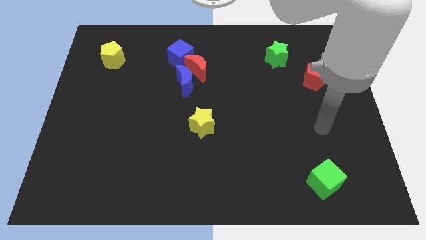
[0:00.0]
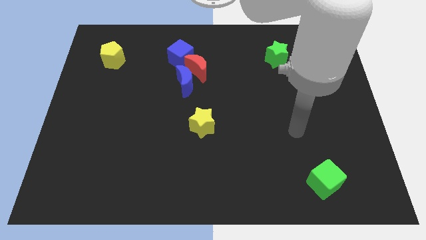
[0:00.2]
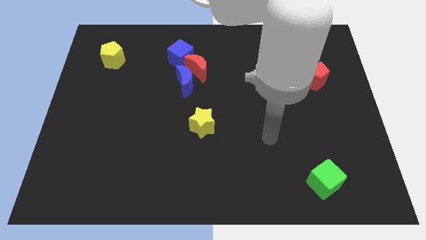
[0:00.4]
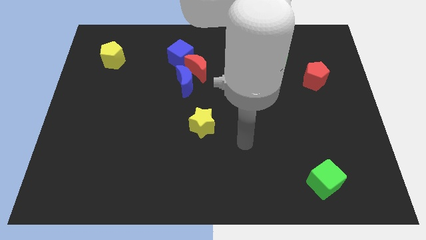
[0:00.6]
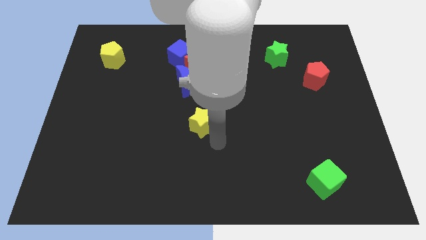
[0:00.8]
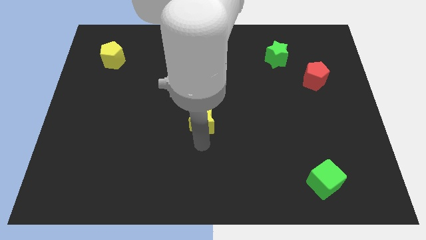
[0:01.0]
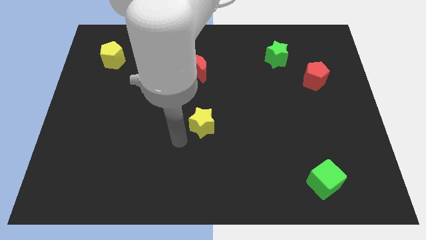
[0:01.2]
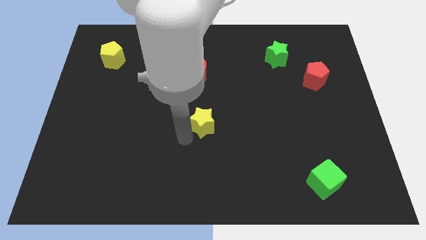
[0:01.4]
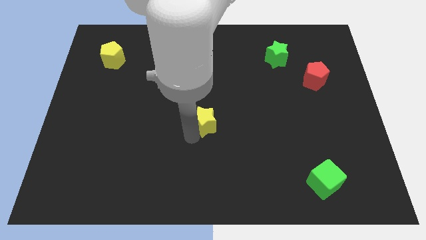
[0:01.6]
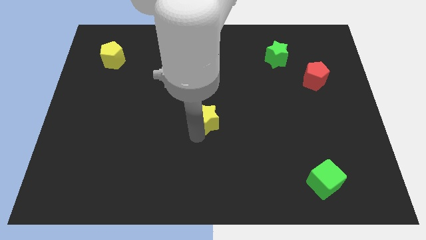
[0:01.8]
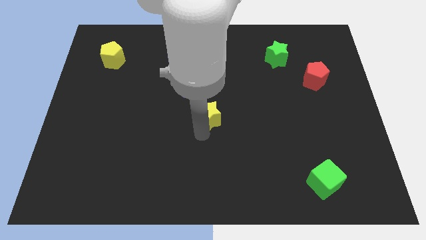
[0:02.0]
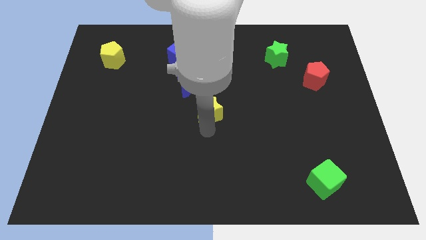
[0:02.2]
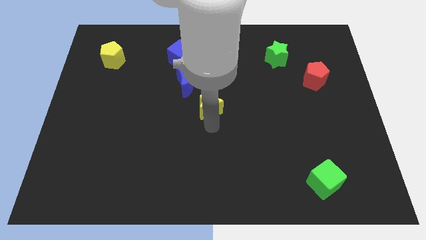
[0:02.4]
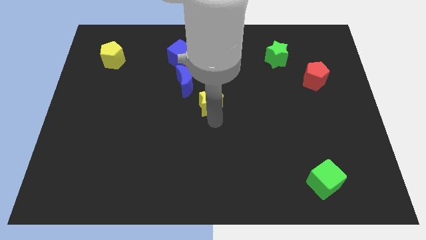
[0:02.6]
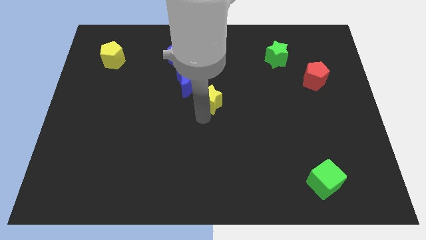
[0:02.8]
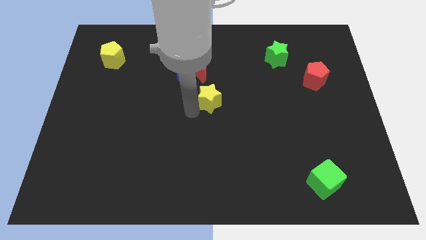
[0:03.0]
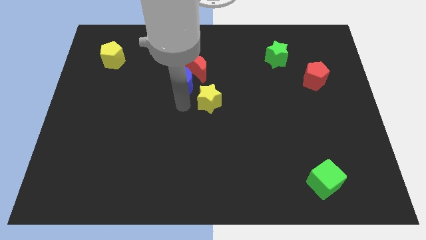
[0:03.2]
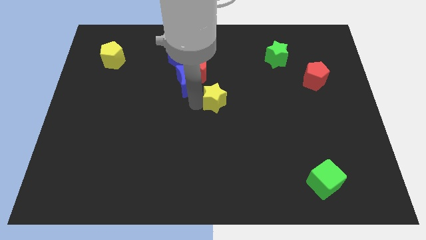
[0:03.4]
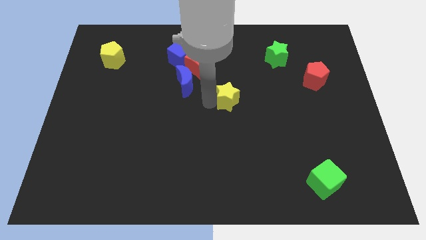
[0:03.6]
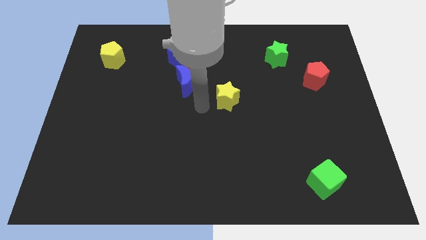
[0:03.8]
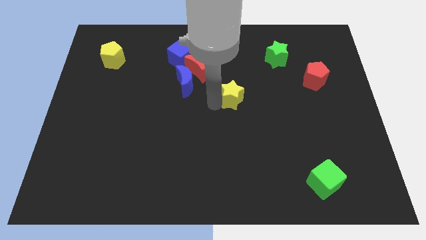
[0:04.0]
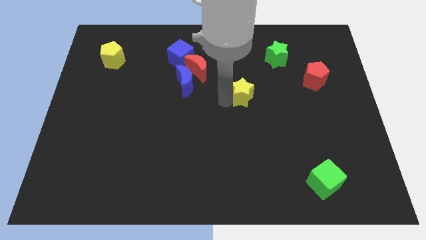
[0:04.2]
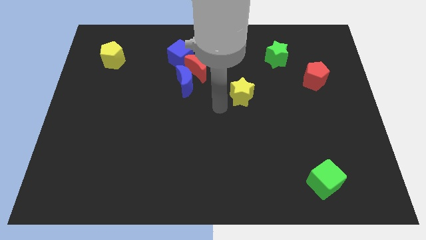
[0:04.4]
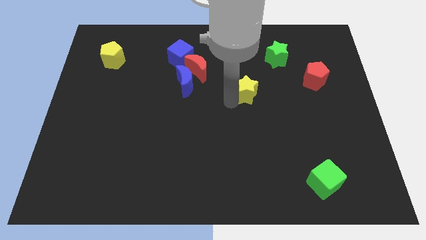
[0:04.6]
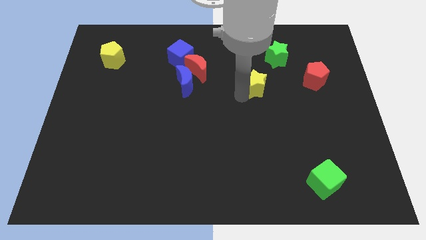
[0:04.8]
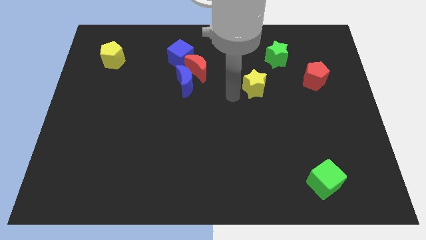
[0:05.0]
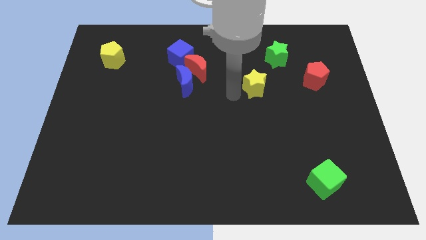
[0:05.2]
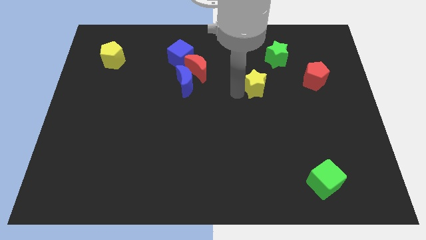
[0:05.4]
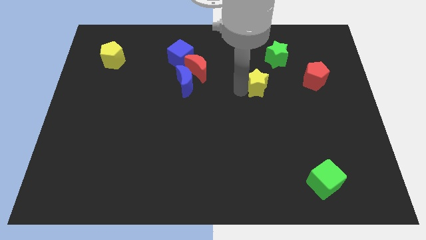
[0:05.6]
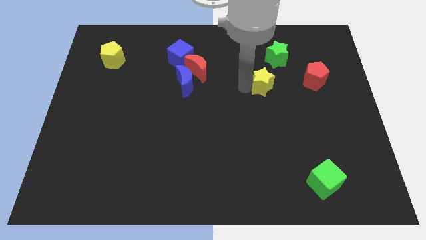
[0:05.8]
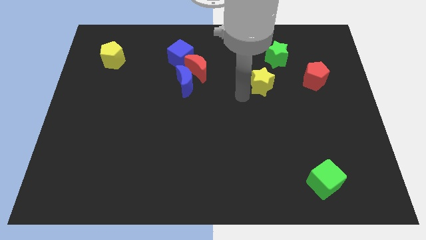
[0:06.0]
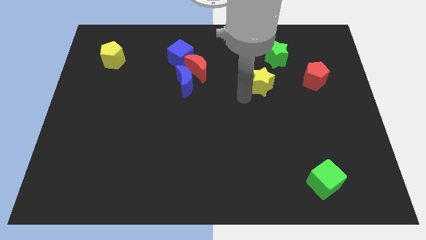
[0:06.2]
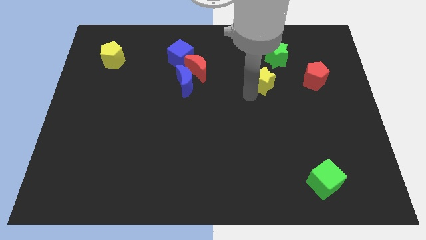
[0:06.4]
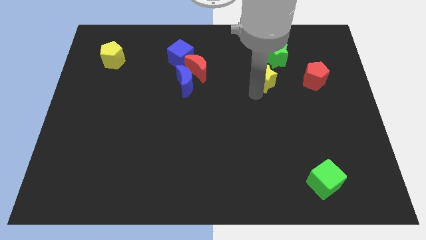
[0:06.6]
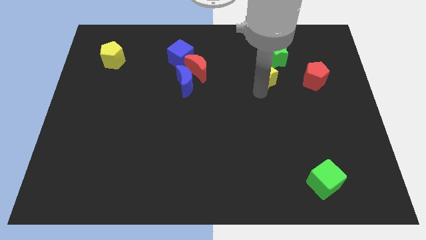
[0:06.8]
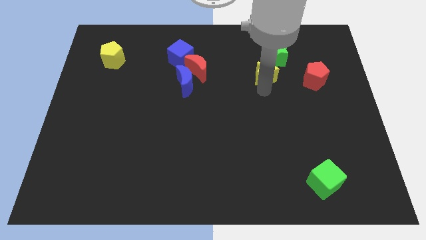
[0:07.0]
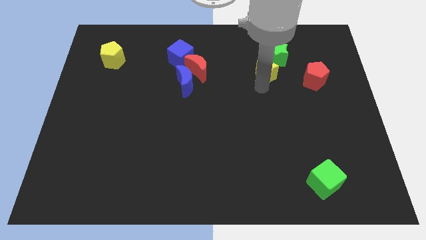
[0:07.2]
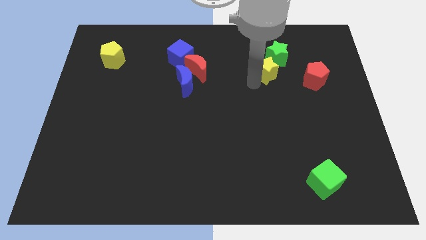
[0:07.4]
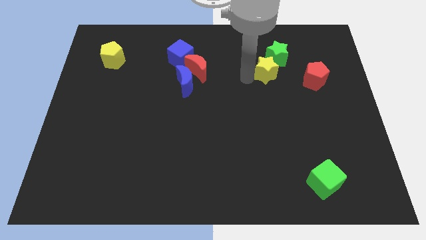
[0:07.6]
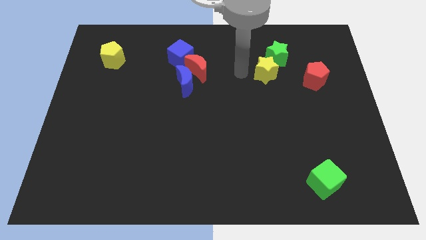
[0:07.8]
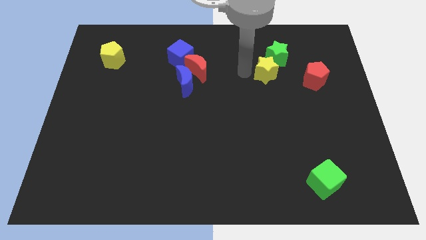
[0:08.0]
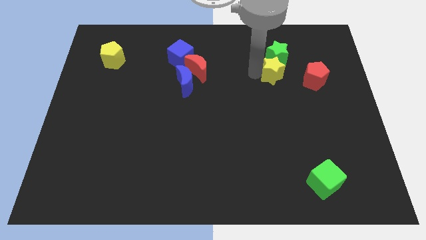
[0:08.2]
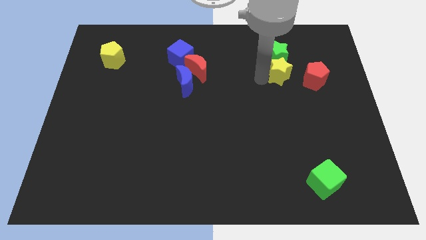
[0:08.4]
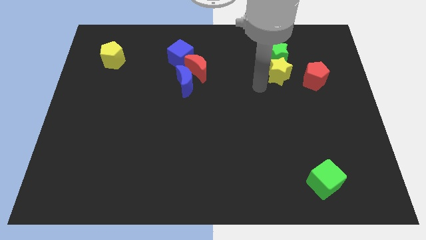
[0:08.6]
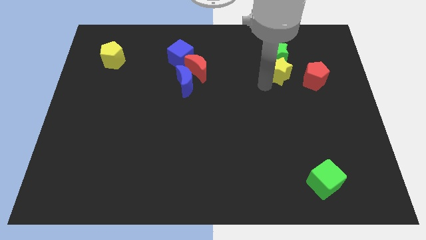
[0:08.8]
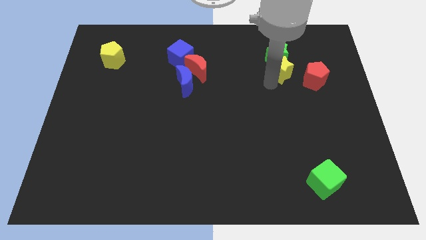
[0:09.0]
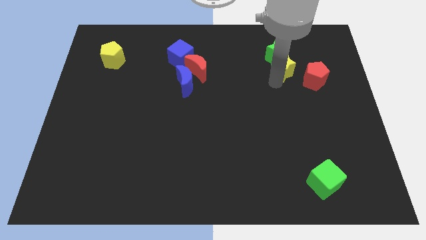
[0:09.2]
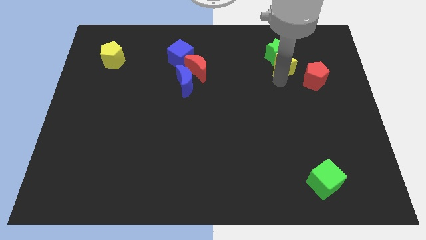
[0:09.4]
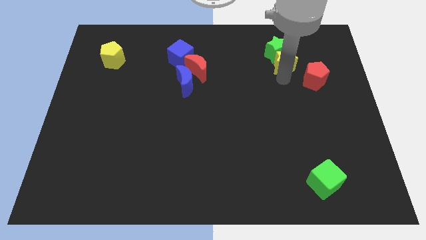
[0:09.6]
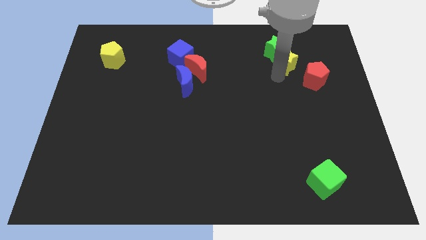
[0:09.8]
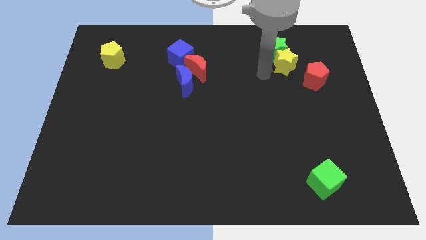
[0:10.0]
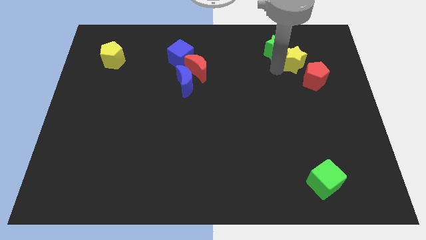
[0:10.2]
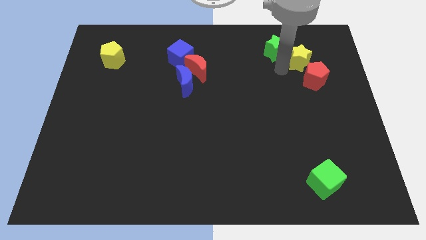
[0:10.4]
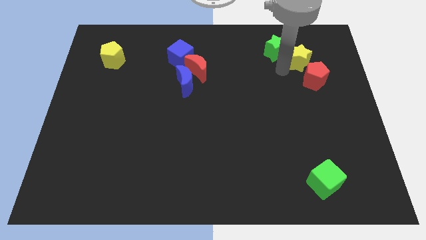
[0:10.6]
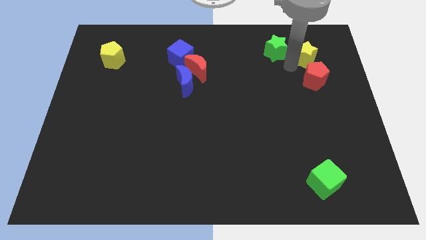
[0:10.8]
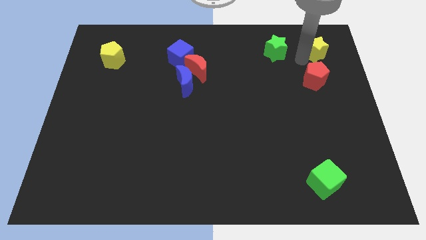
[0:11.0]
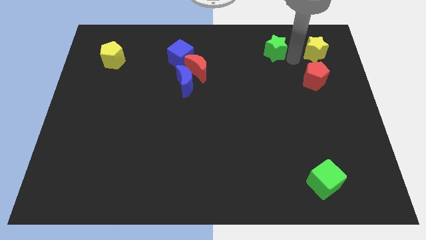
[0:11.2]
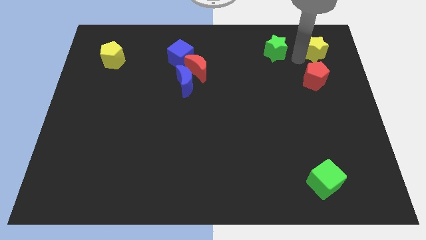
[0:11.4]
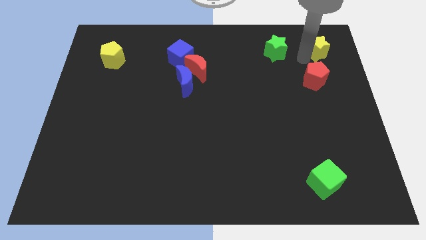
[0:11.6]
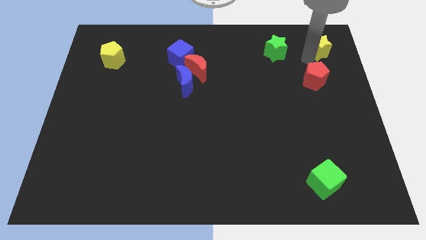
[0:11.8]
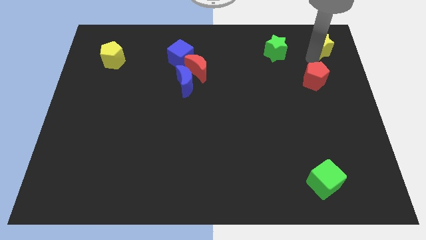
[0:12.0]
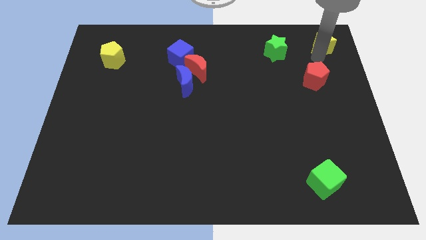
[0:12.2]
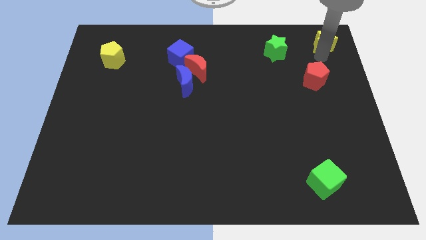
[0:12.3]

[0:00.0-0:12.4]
move the yellow star to the top right corner
